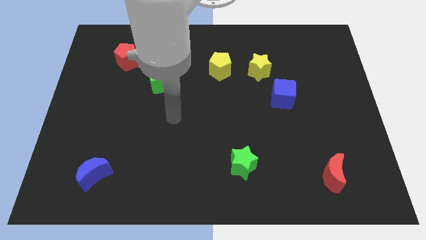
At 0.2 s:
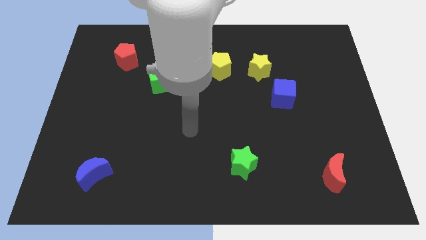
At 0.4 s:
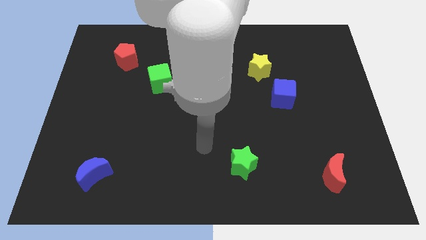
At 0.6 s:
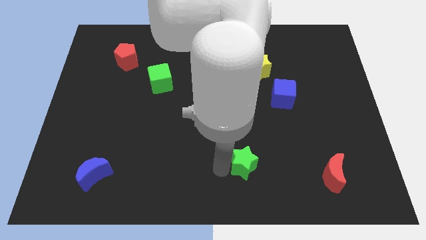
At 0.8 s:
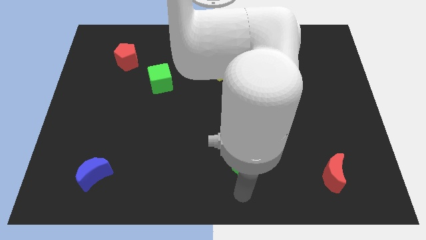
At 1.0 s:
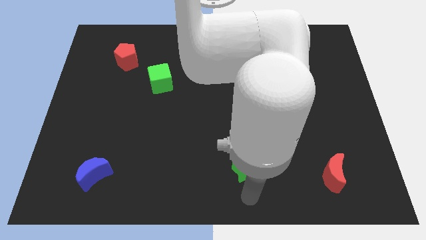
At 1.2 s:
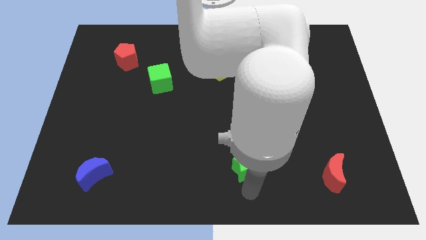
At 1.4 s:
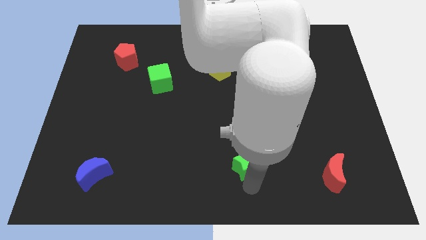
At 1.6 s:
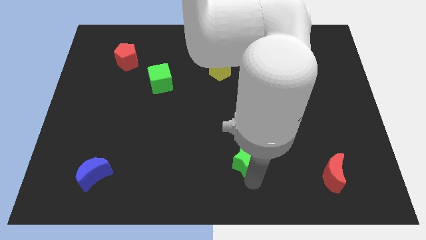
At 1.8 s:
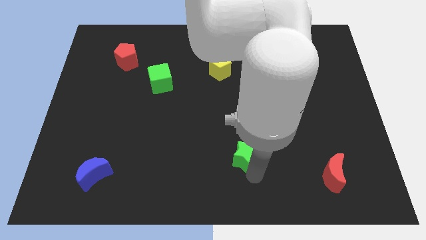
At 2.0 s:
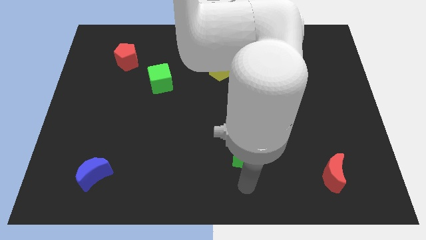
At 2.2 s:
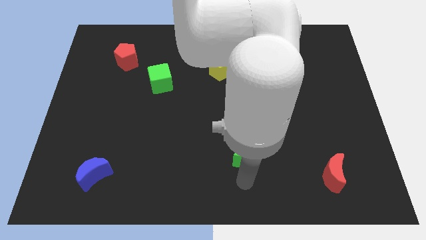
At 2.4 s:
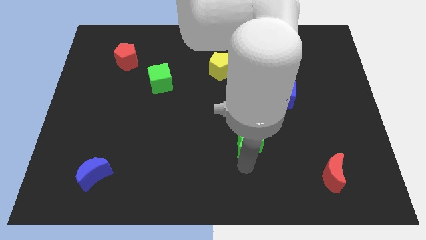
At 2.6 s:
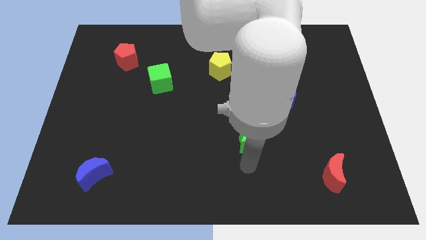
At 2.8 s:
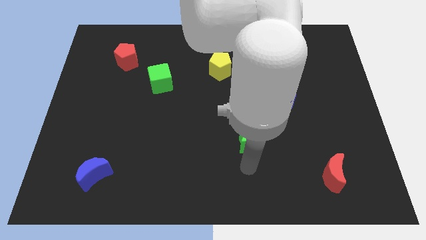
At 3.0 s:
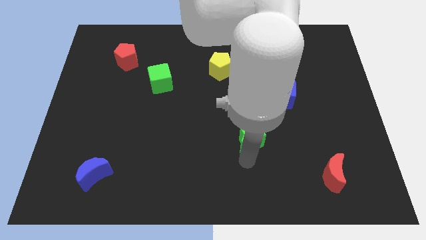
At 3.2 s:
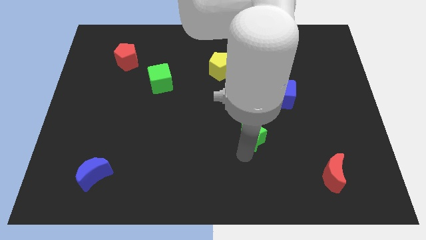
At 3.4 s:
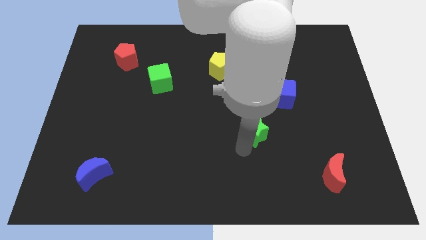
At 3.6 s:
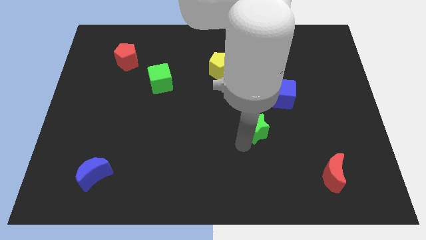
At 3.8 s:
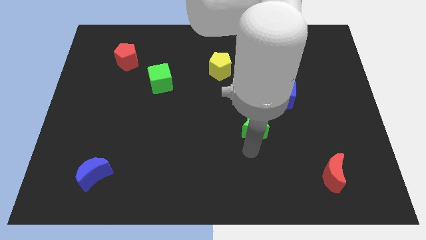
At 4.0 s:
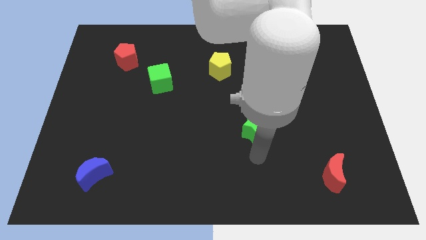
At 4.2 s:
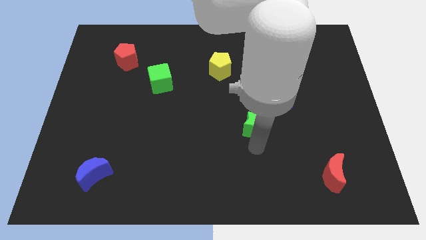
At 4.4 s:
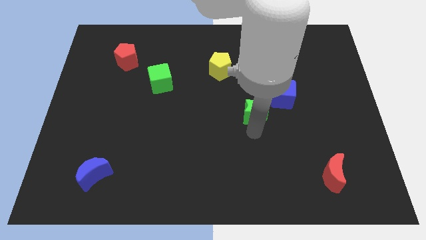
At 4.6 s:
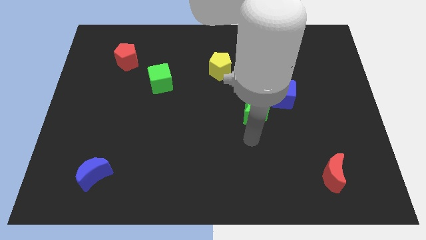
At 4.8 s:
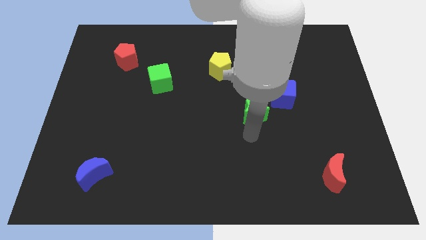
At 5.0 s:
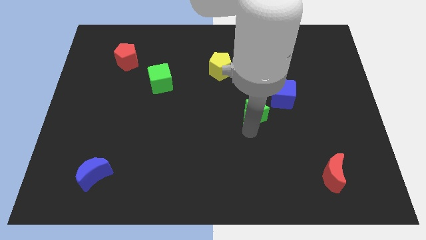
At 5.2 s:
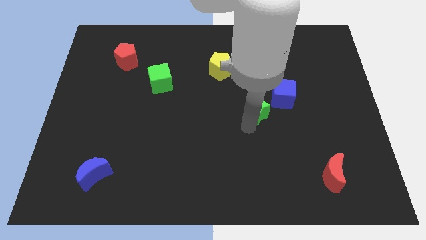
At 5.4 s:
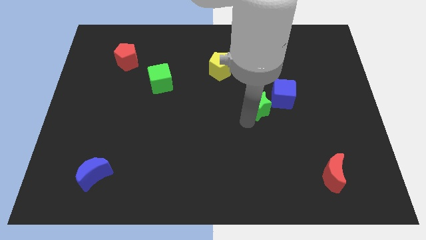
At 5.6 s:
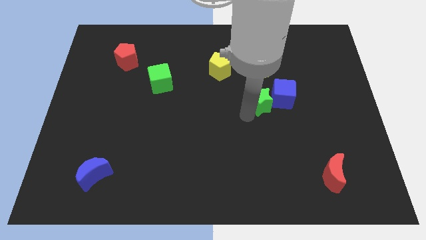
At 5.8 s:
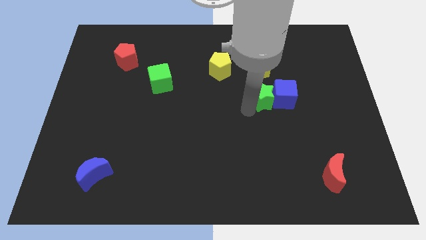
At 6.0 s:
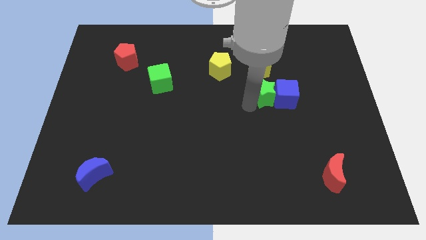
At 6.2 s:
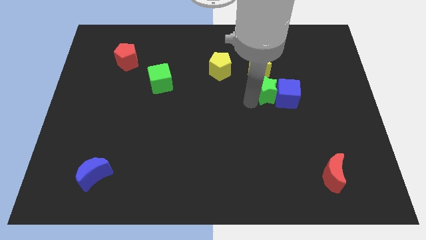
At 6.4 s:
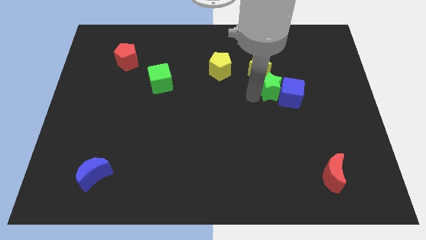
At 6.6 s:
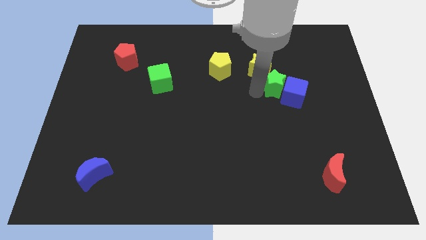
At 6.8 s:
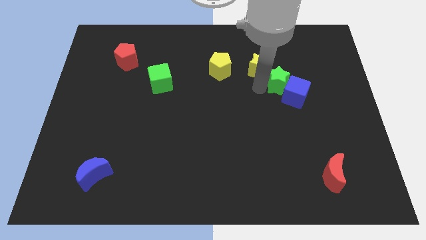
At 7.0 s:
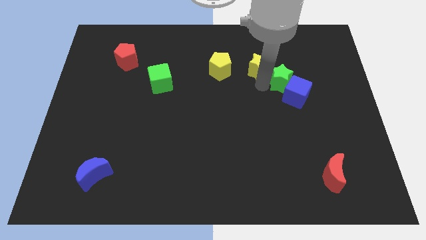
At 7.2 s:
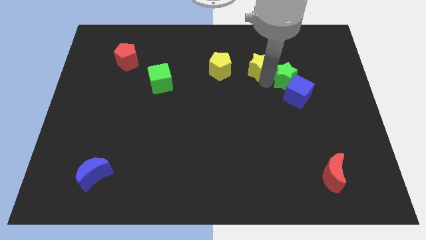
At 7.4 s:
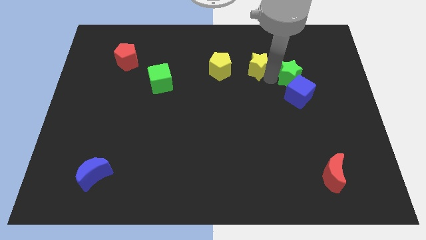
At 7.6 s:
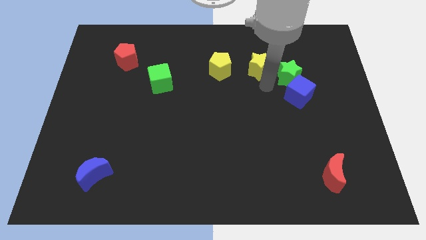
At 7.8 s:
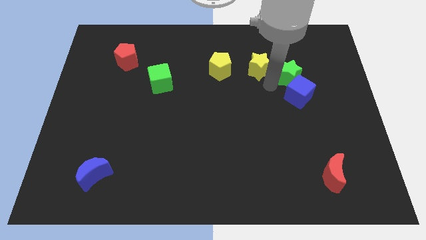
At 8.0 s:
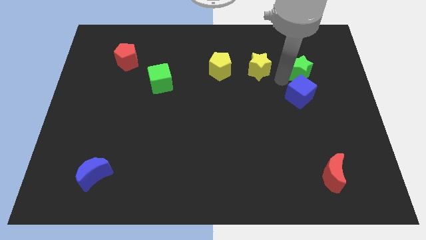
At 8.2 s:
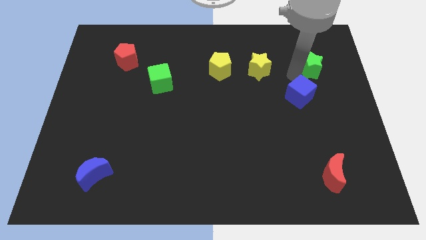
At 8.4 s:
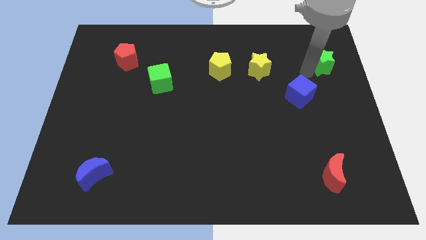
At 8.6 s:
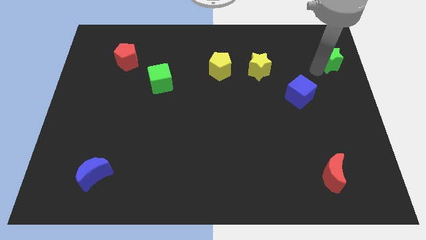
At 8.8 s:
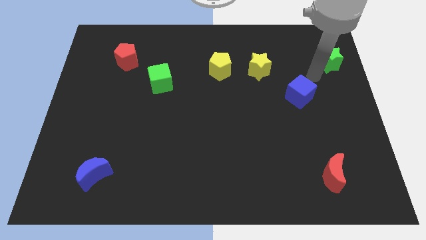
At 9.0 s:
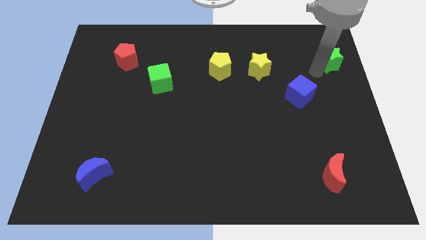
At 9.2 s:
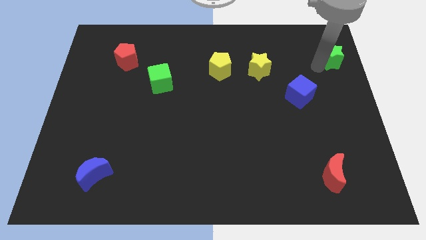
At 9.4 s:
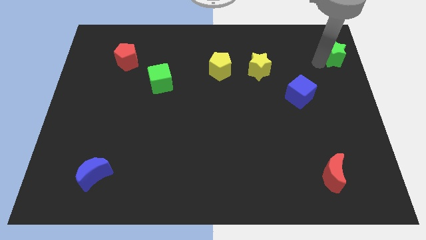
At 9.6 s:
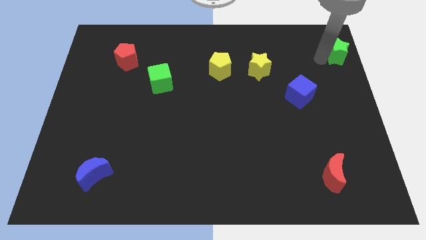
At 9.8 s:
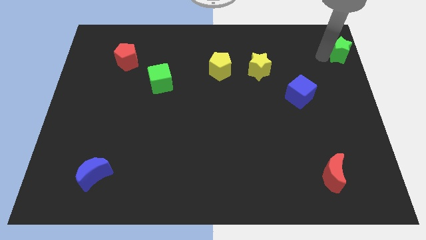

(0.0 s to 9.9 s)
move the green star to the top right

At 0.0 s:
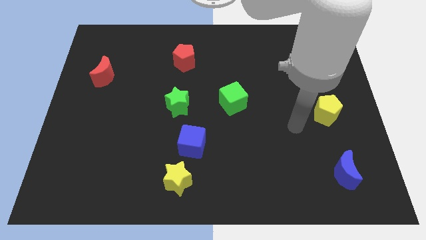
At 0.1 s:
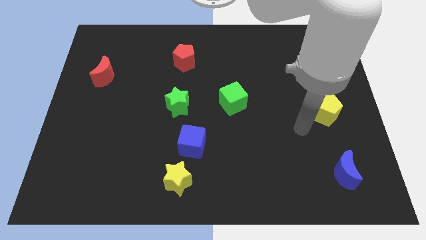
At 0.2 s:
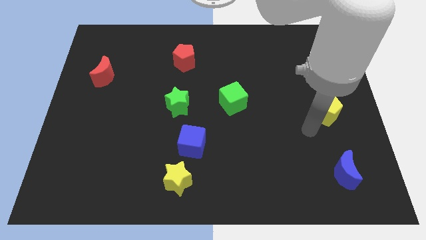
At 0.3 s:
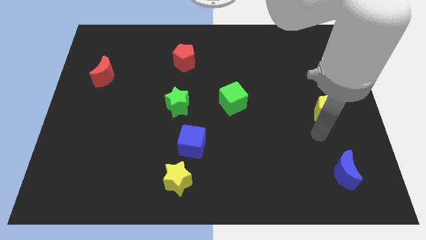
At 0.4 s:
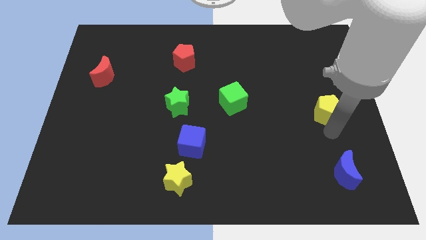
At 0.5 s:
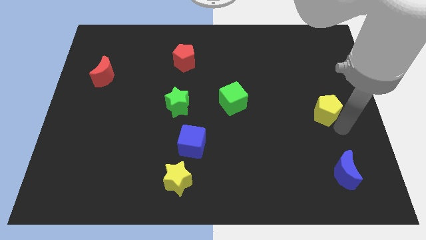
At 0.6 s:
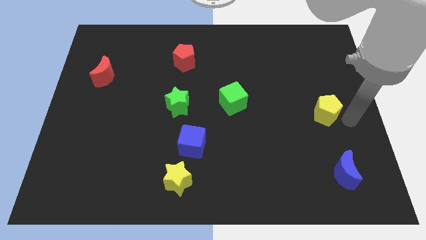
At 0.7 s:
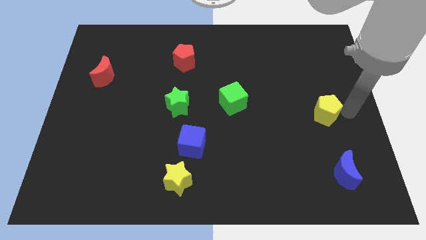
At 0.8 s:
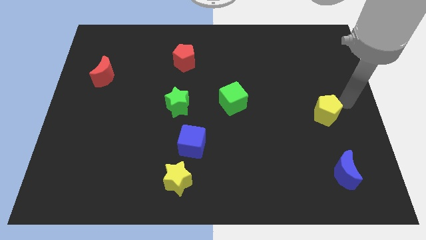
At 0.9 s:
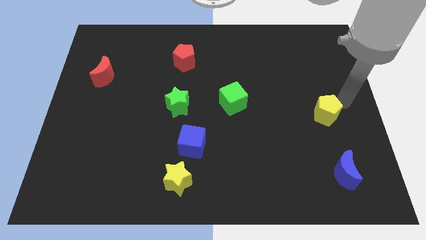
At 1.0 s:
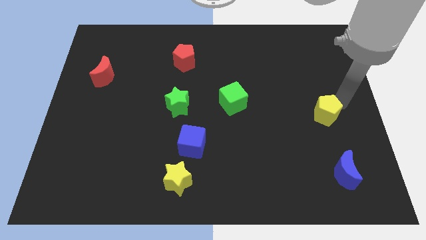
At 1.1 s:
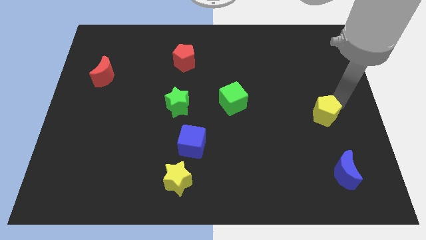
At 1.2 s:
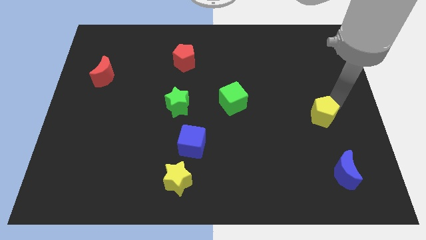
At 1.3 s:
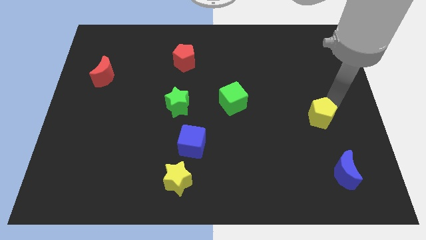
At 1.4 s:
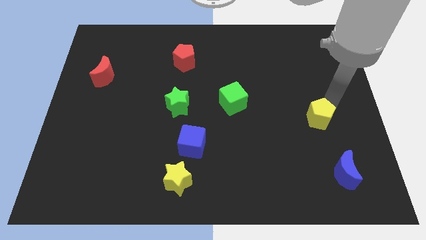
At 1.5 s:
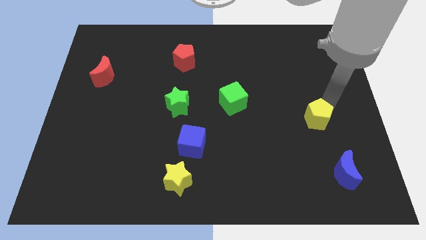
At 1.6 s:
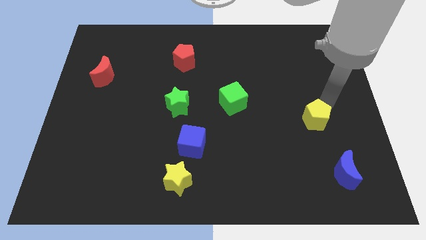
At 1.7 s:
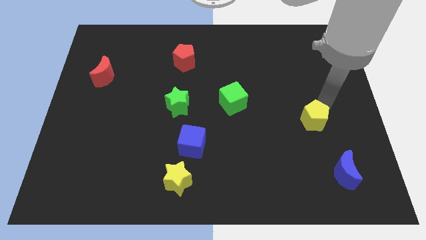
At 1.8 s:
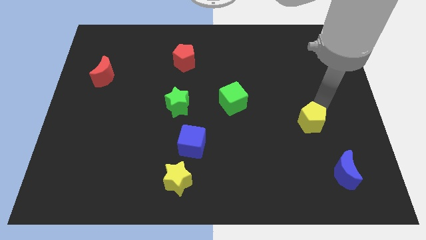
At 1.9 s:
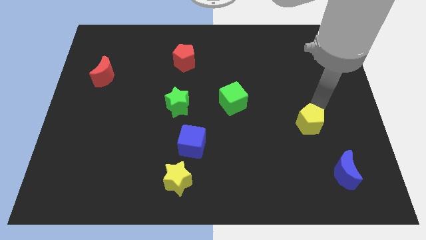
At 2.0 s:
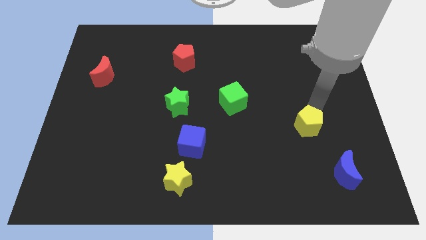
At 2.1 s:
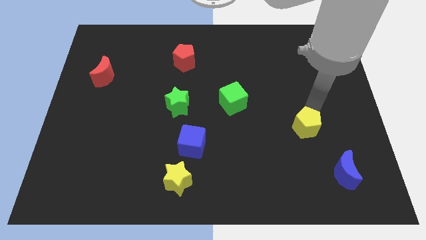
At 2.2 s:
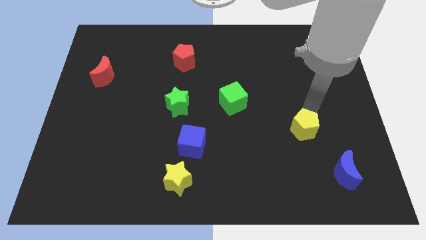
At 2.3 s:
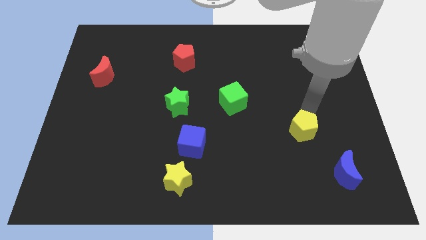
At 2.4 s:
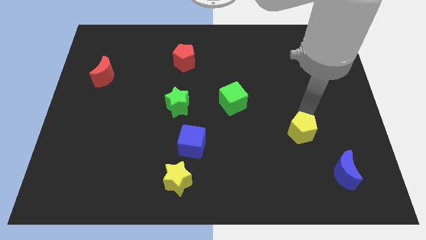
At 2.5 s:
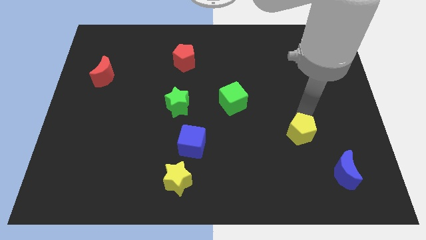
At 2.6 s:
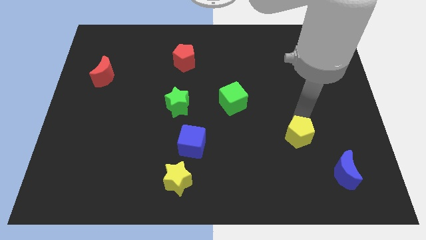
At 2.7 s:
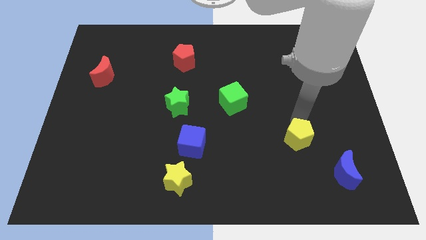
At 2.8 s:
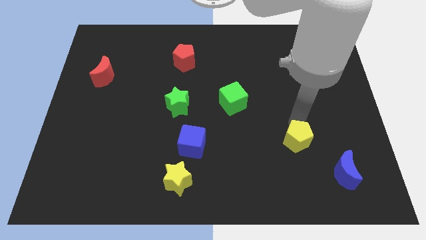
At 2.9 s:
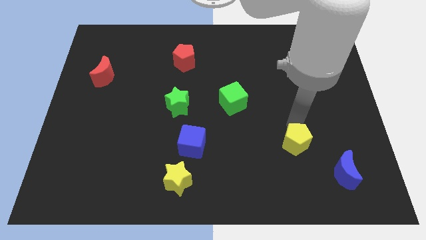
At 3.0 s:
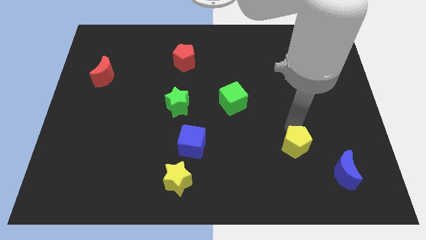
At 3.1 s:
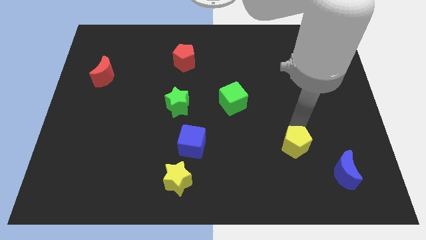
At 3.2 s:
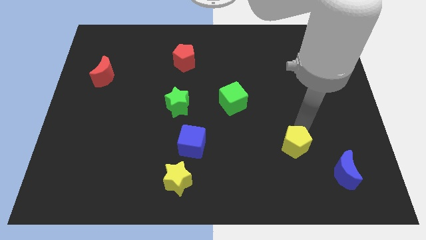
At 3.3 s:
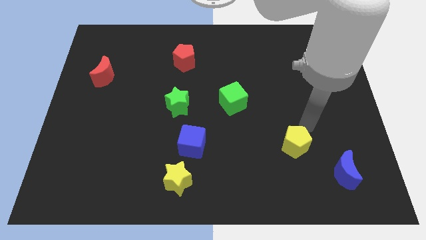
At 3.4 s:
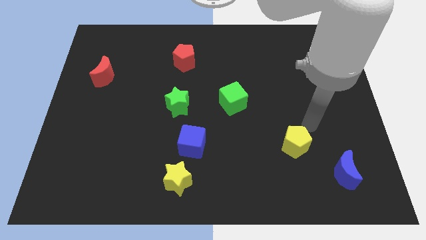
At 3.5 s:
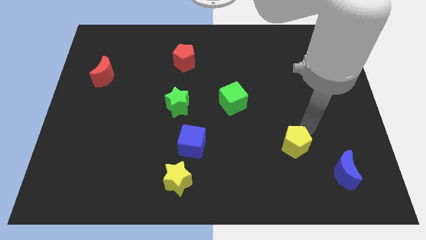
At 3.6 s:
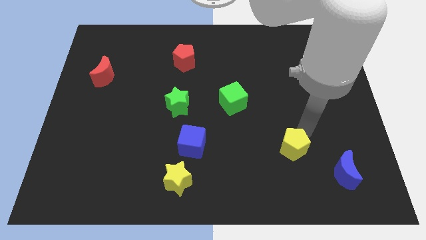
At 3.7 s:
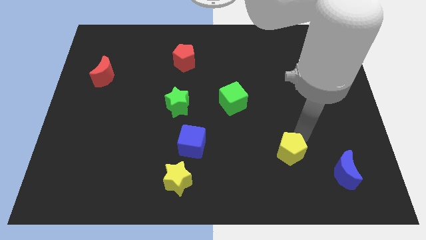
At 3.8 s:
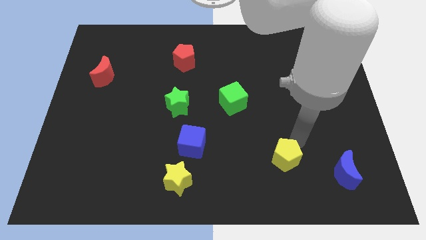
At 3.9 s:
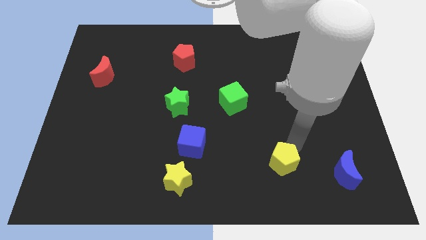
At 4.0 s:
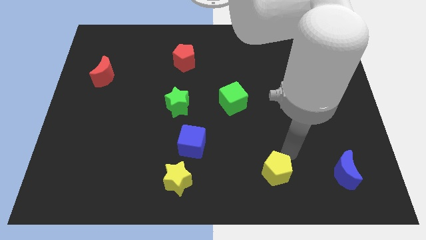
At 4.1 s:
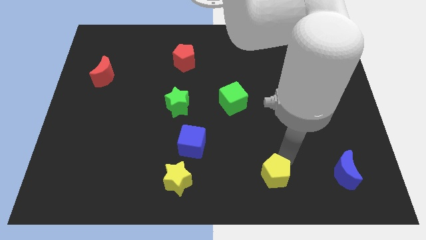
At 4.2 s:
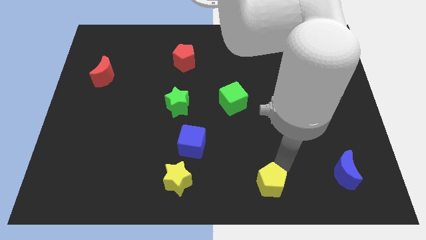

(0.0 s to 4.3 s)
move the yellow pentagon to the bottom
